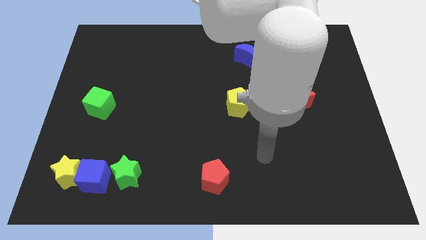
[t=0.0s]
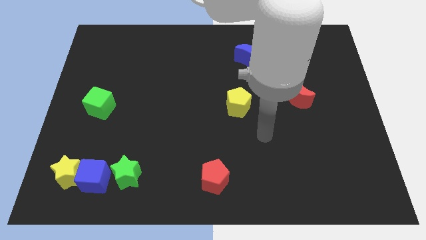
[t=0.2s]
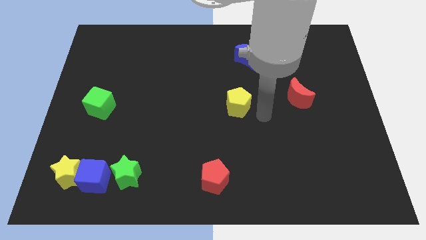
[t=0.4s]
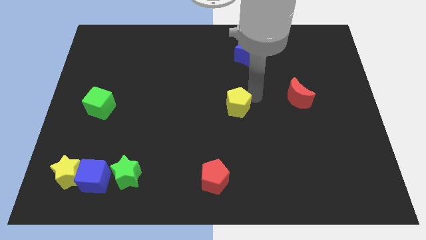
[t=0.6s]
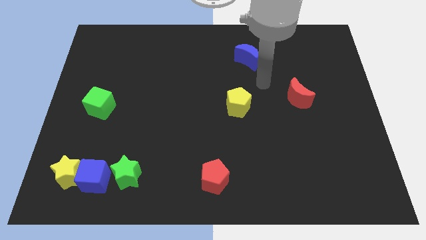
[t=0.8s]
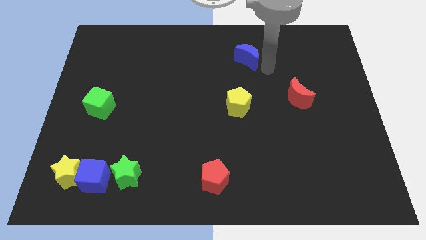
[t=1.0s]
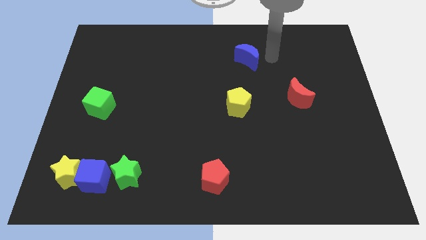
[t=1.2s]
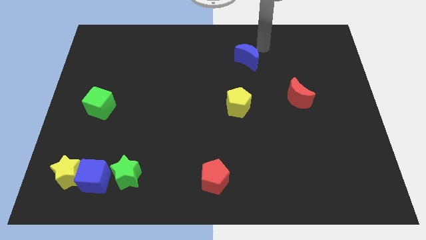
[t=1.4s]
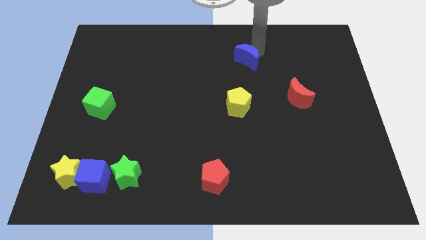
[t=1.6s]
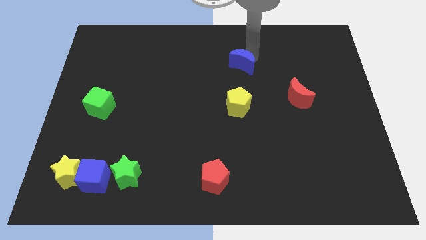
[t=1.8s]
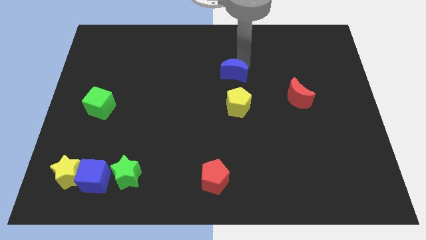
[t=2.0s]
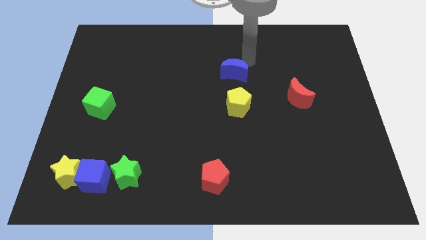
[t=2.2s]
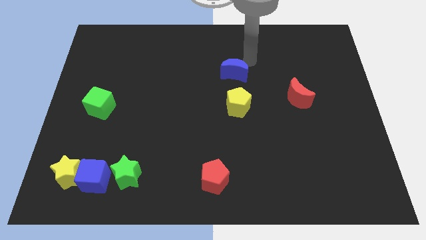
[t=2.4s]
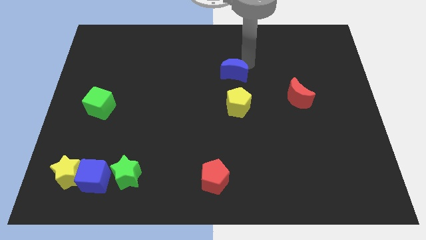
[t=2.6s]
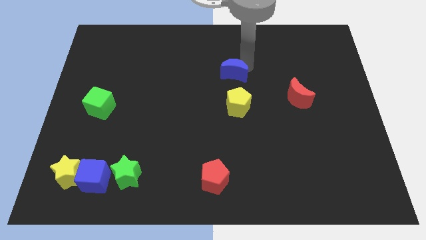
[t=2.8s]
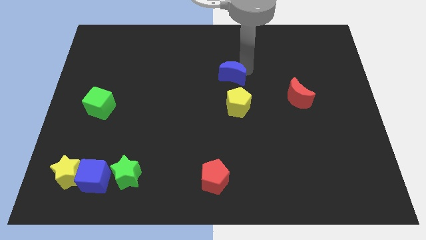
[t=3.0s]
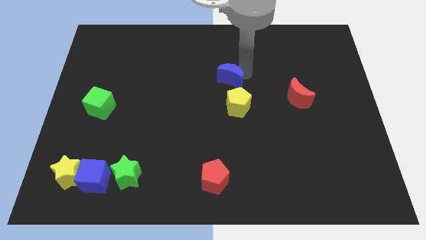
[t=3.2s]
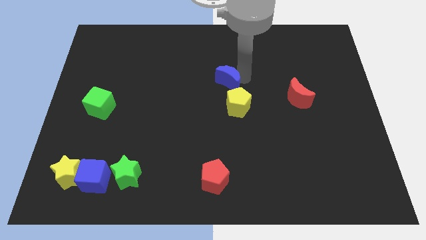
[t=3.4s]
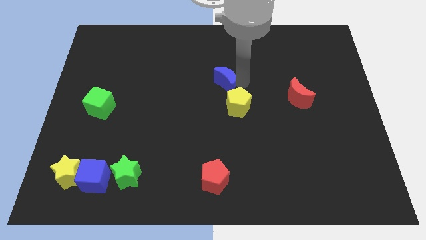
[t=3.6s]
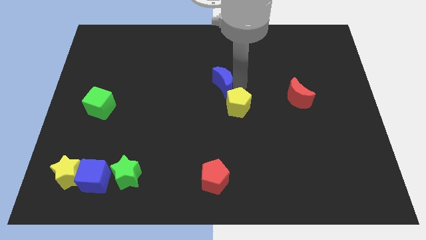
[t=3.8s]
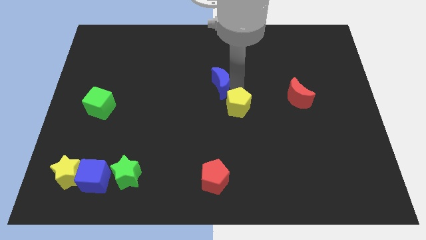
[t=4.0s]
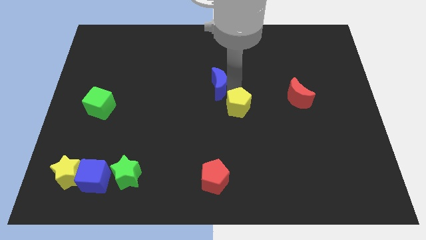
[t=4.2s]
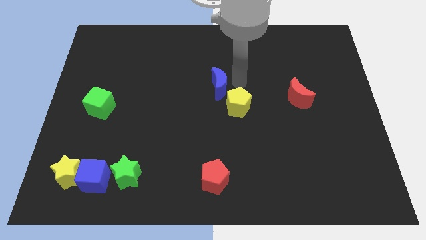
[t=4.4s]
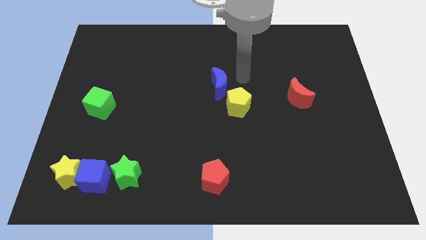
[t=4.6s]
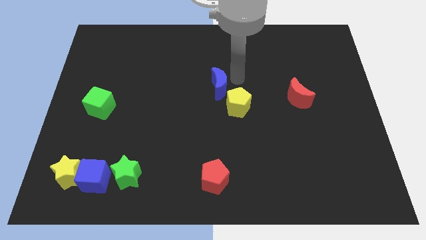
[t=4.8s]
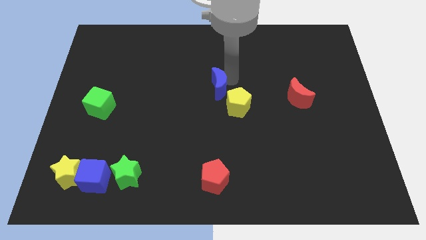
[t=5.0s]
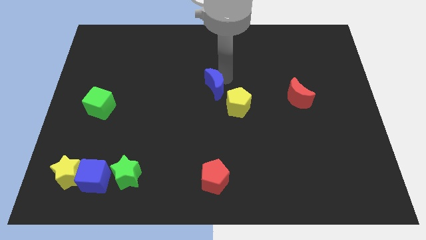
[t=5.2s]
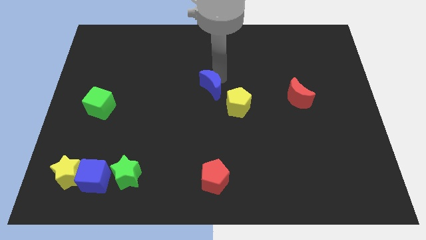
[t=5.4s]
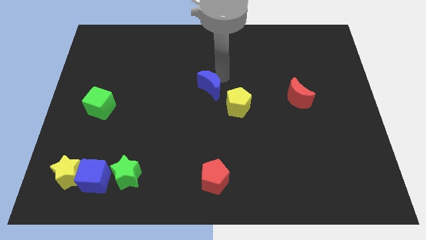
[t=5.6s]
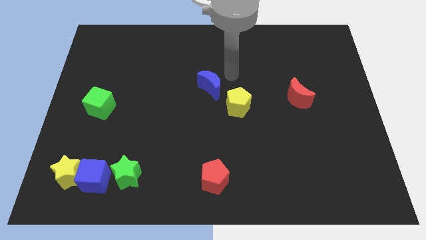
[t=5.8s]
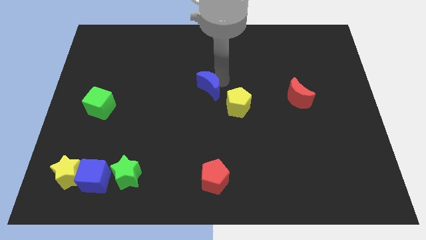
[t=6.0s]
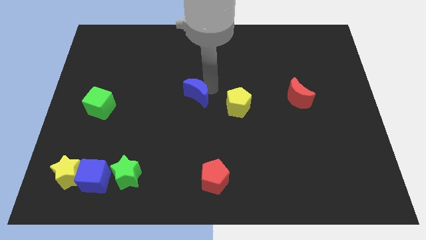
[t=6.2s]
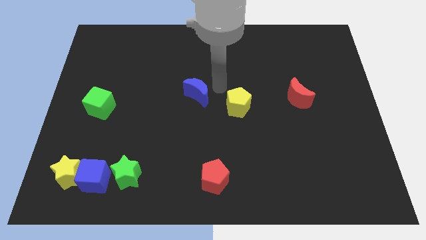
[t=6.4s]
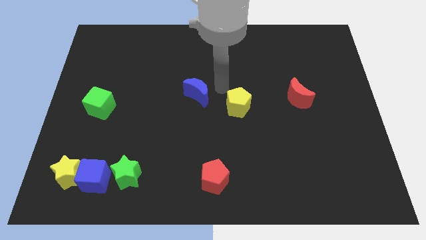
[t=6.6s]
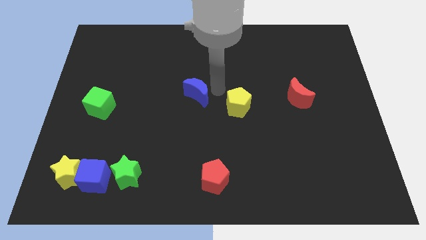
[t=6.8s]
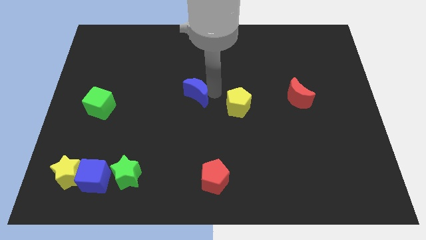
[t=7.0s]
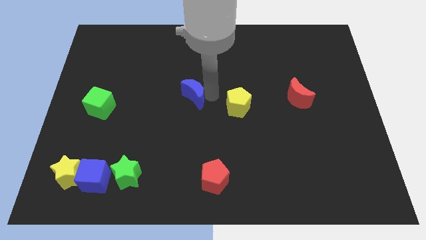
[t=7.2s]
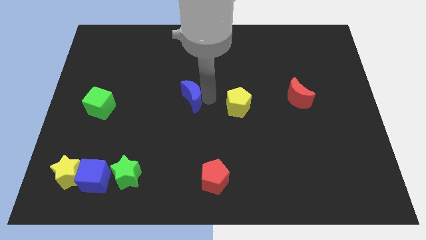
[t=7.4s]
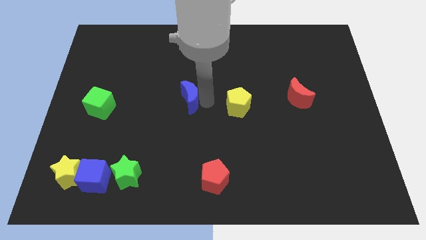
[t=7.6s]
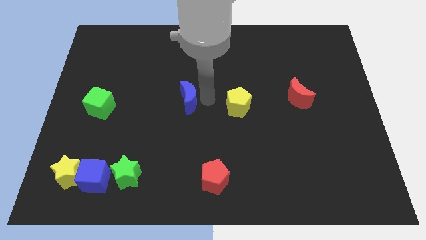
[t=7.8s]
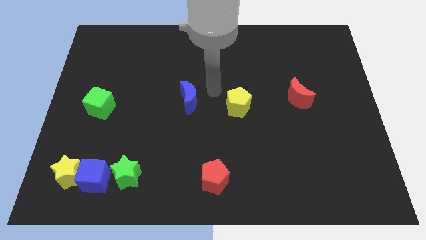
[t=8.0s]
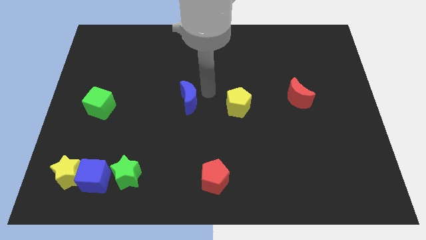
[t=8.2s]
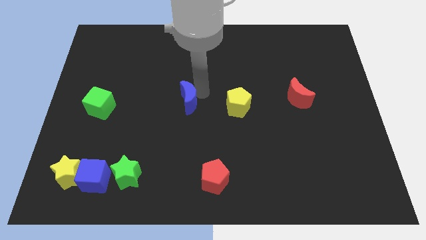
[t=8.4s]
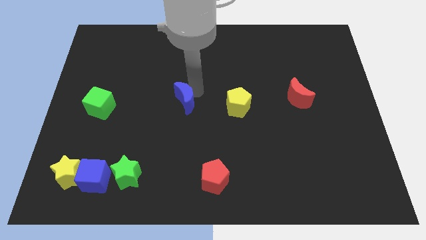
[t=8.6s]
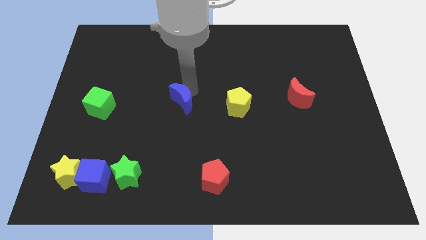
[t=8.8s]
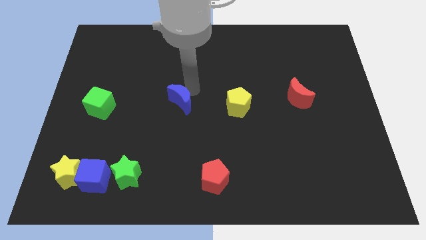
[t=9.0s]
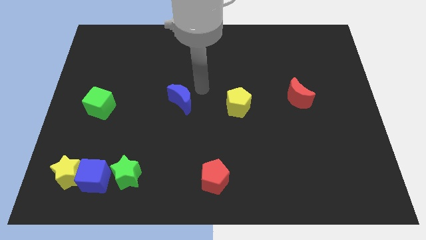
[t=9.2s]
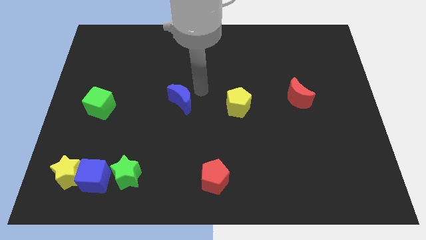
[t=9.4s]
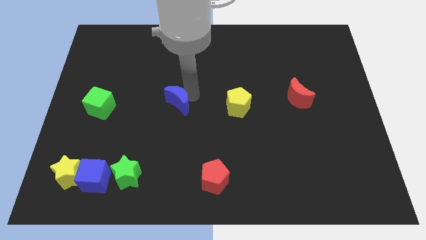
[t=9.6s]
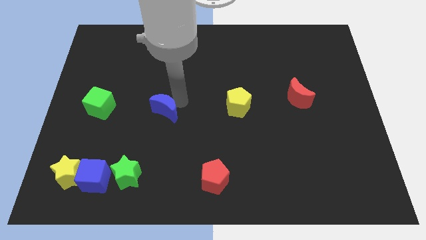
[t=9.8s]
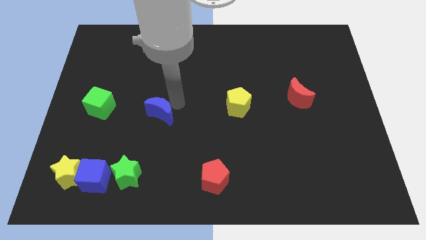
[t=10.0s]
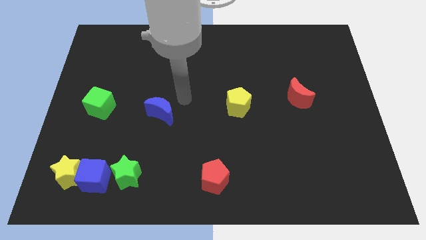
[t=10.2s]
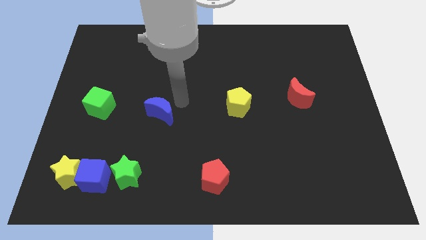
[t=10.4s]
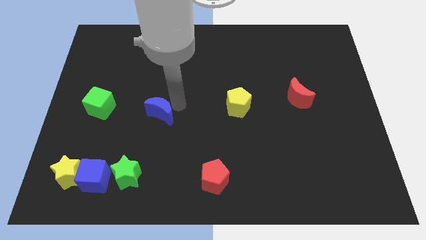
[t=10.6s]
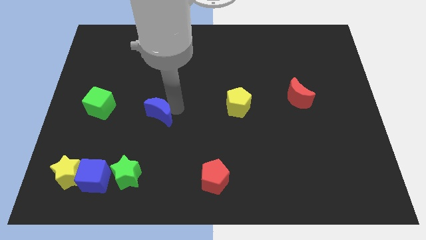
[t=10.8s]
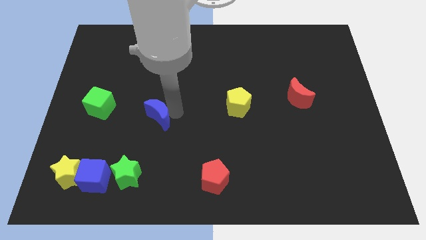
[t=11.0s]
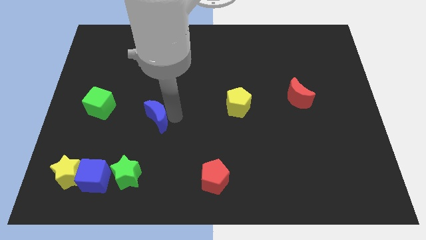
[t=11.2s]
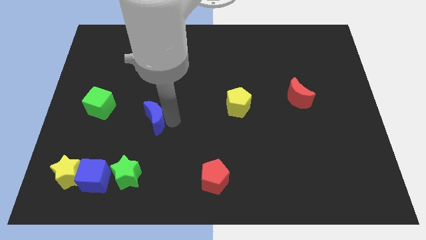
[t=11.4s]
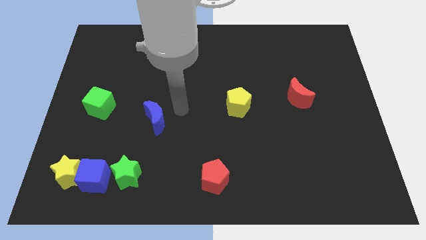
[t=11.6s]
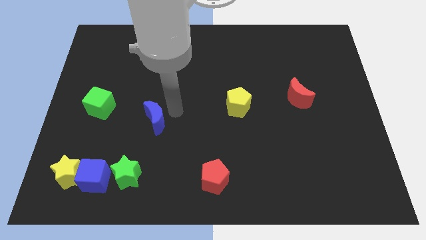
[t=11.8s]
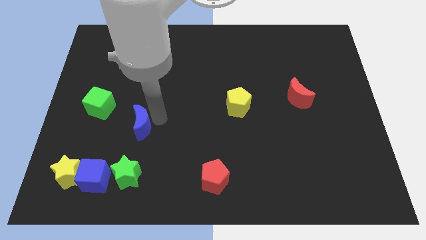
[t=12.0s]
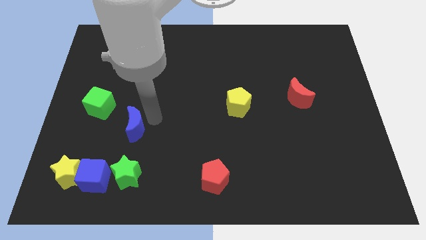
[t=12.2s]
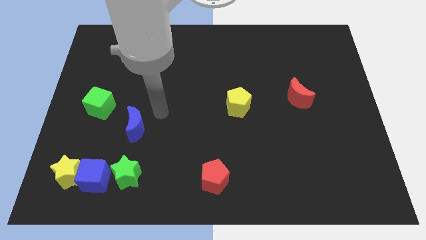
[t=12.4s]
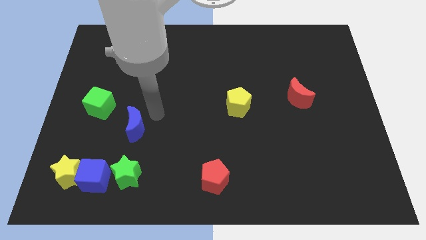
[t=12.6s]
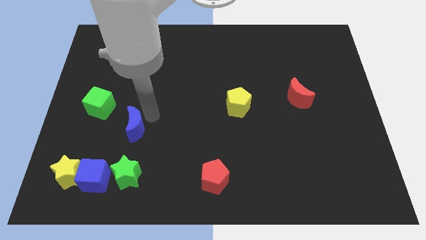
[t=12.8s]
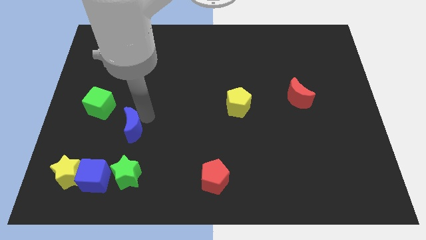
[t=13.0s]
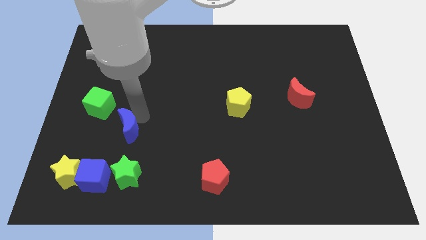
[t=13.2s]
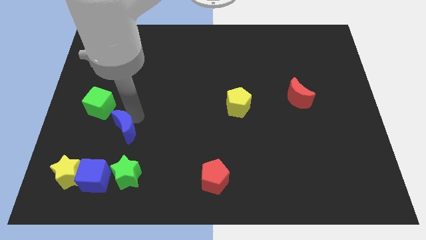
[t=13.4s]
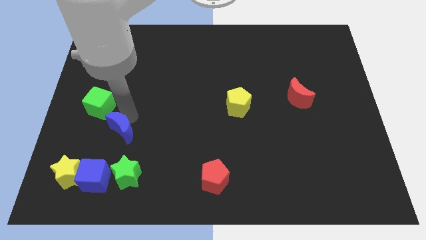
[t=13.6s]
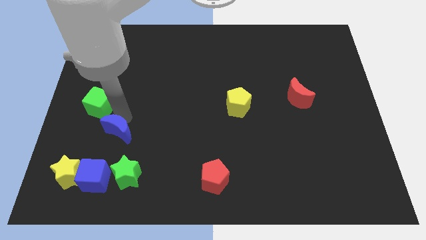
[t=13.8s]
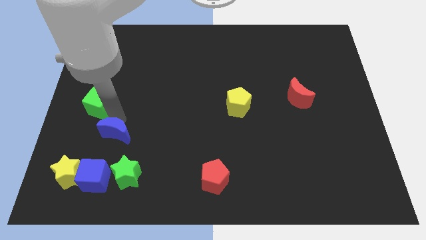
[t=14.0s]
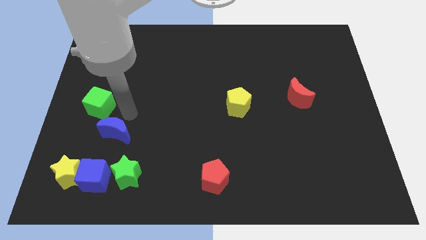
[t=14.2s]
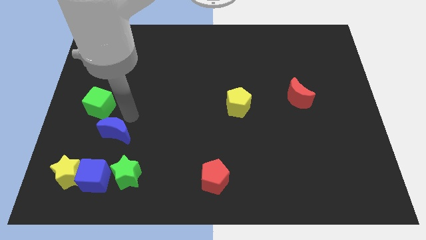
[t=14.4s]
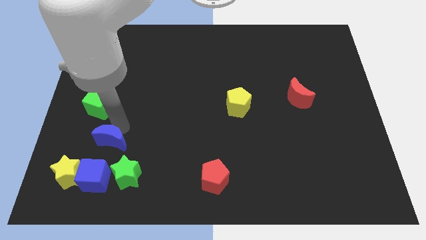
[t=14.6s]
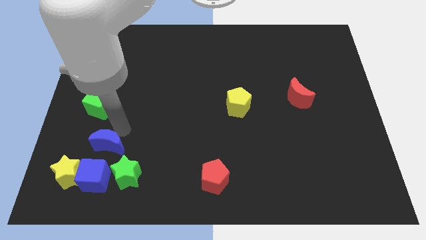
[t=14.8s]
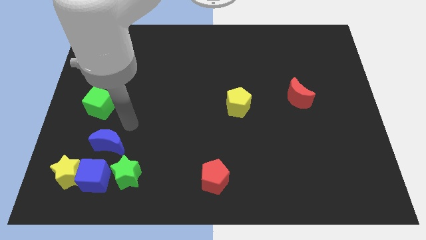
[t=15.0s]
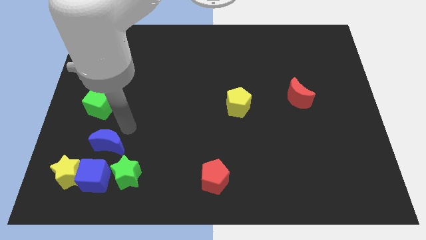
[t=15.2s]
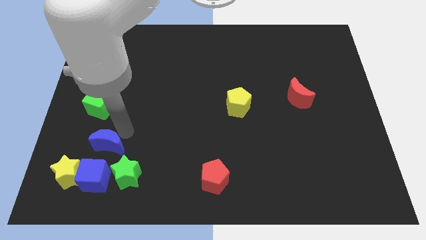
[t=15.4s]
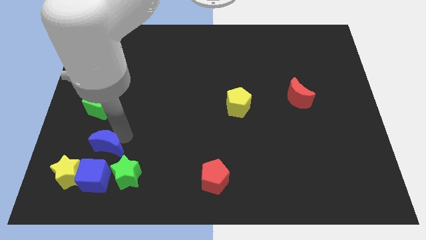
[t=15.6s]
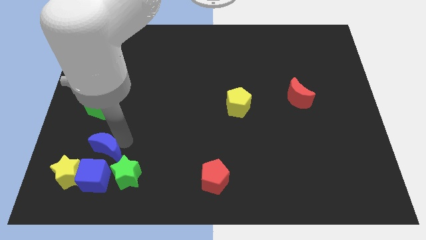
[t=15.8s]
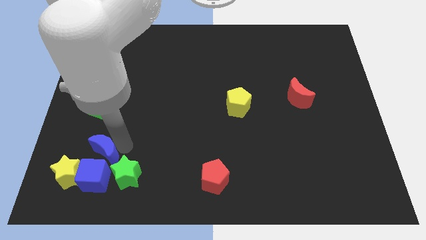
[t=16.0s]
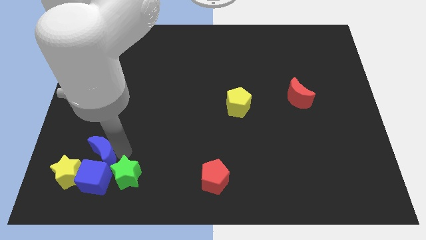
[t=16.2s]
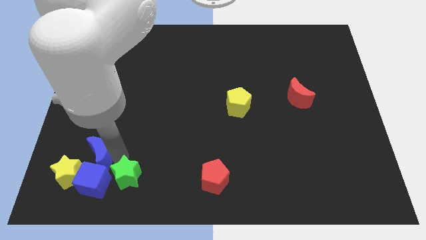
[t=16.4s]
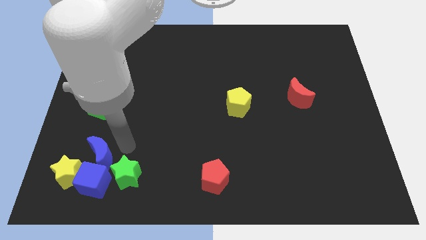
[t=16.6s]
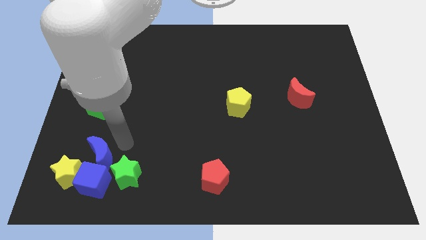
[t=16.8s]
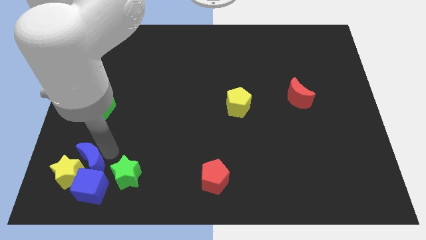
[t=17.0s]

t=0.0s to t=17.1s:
push the blue moon next to the yellow star
